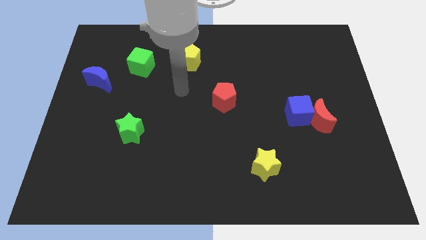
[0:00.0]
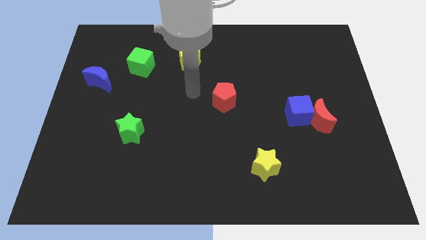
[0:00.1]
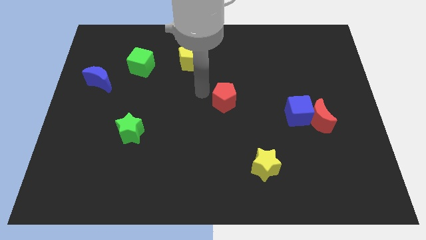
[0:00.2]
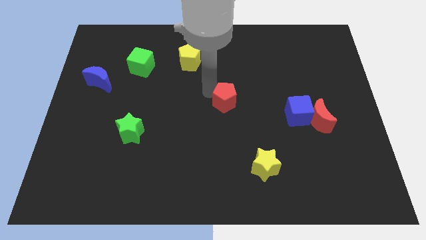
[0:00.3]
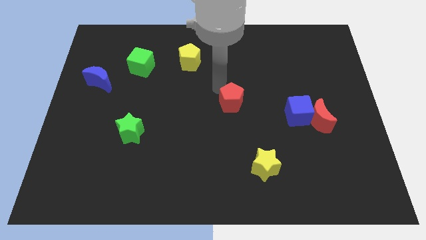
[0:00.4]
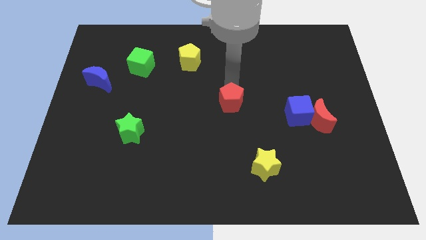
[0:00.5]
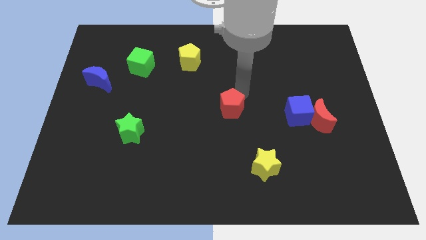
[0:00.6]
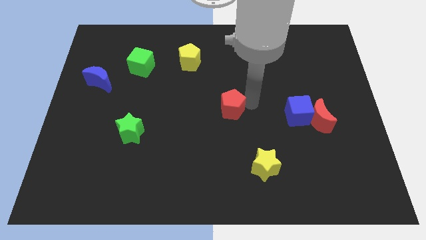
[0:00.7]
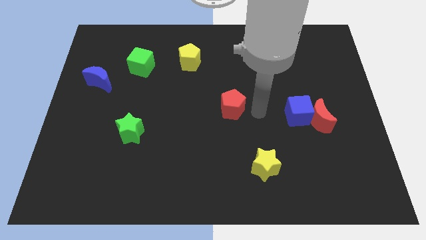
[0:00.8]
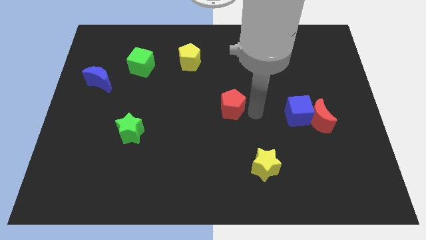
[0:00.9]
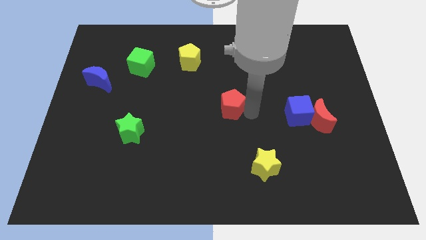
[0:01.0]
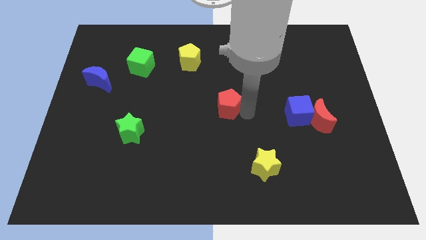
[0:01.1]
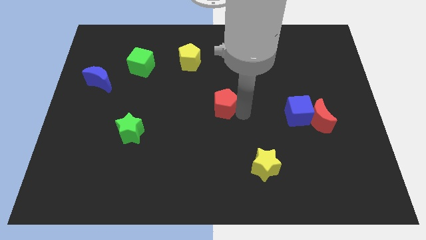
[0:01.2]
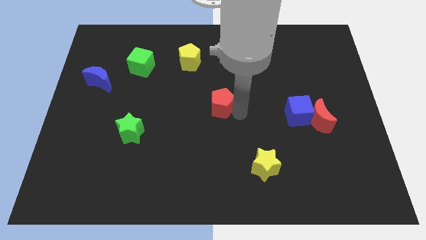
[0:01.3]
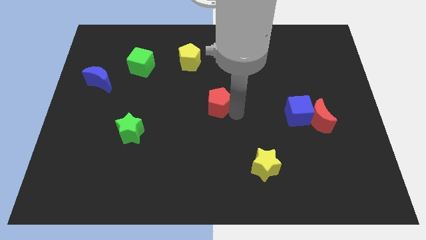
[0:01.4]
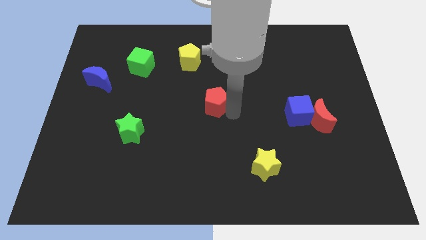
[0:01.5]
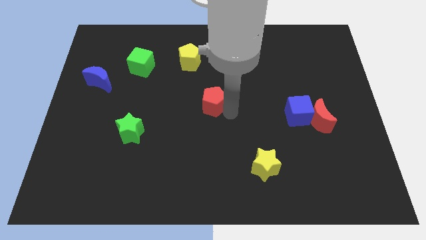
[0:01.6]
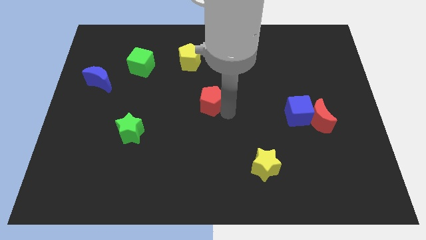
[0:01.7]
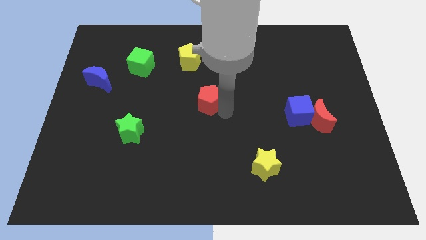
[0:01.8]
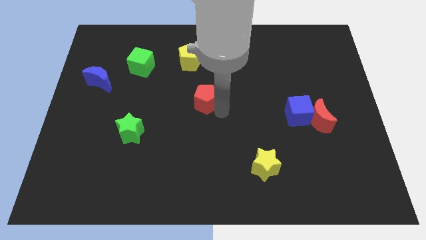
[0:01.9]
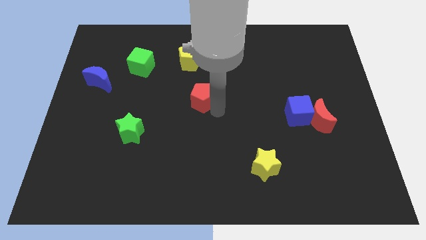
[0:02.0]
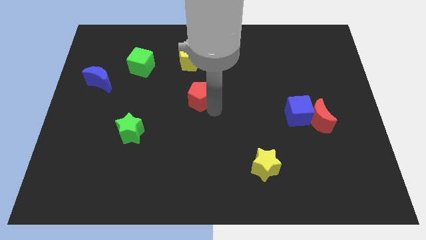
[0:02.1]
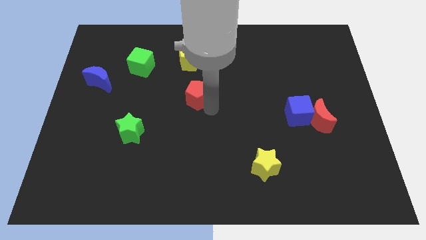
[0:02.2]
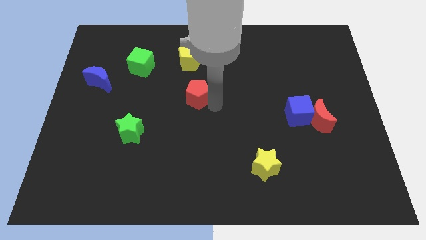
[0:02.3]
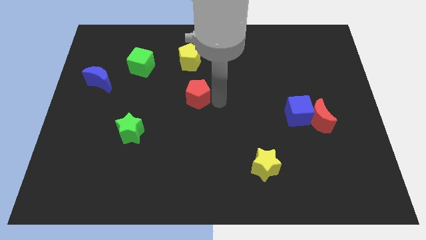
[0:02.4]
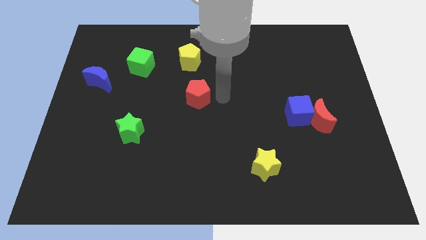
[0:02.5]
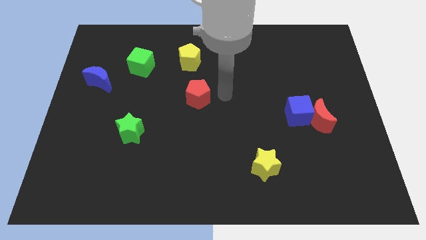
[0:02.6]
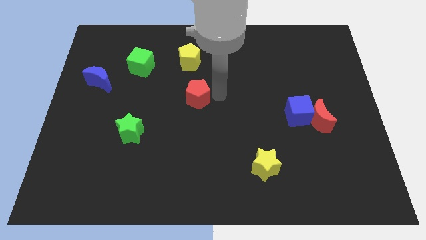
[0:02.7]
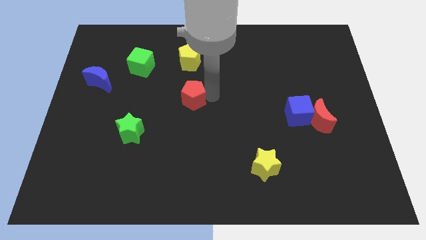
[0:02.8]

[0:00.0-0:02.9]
push the red pentagon a bit to the left

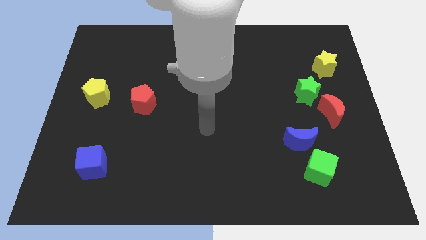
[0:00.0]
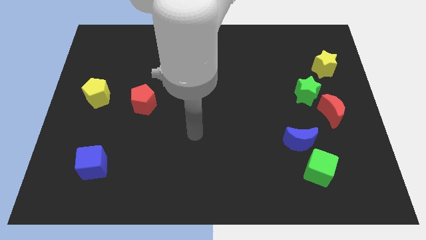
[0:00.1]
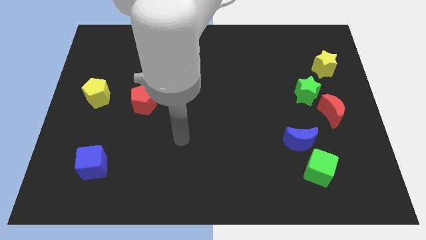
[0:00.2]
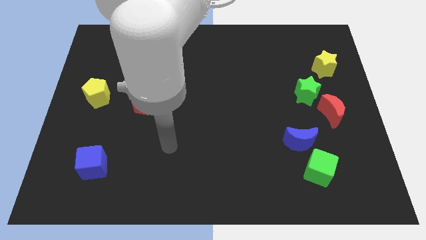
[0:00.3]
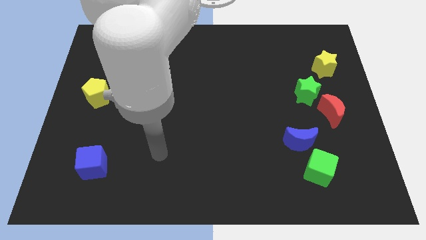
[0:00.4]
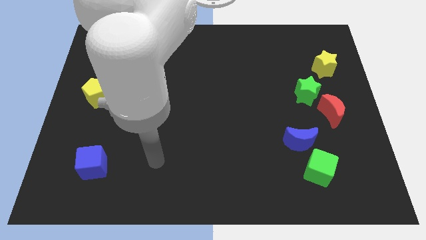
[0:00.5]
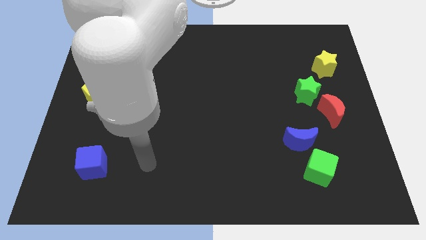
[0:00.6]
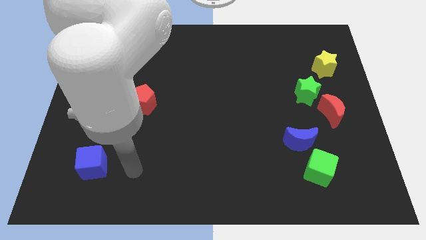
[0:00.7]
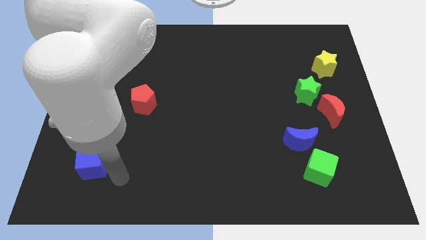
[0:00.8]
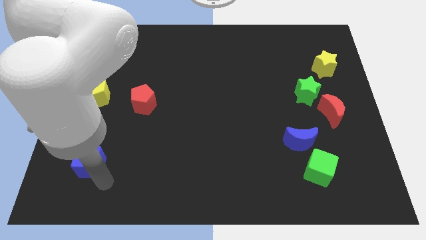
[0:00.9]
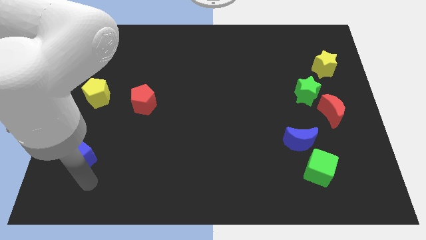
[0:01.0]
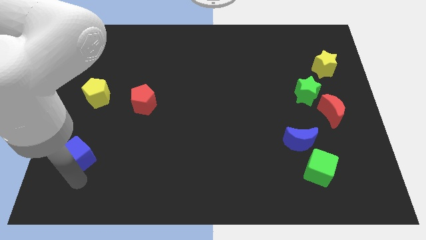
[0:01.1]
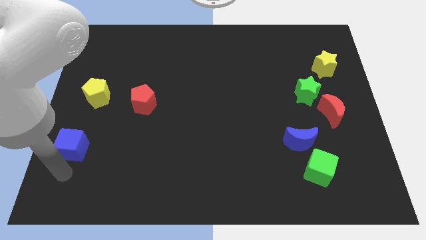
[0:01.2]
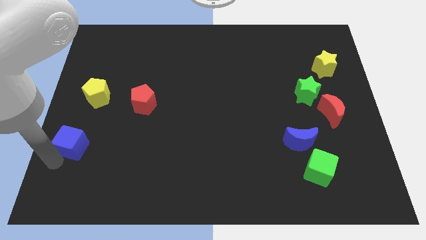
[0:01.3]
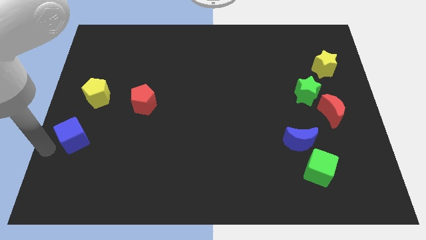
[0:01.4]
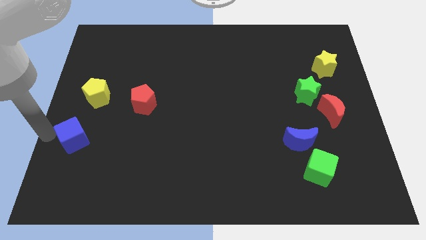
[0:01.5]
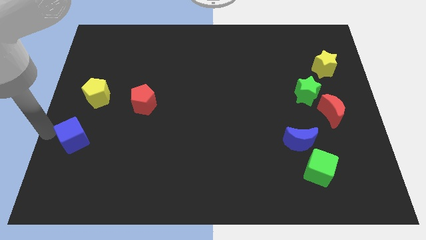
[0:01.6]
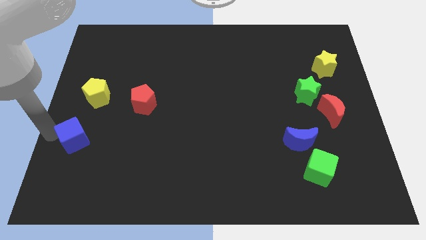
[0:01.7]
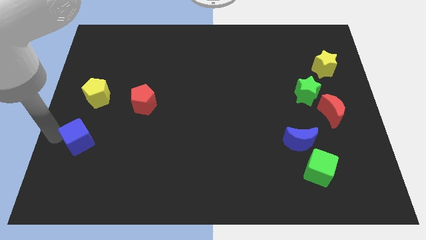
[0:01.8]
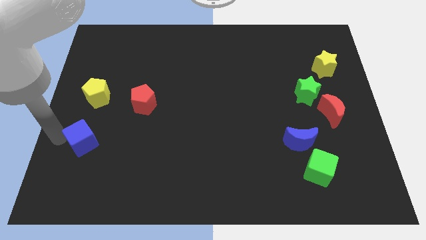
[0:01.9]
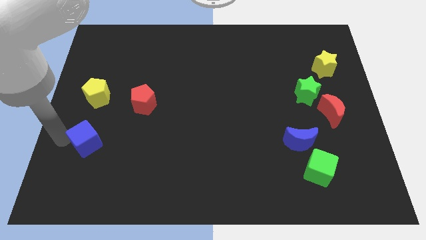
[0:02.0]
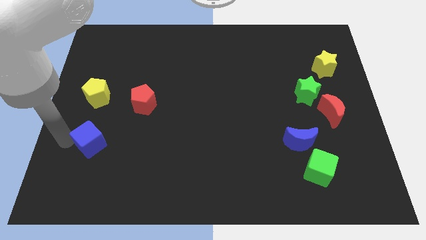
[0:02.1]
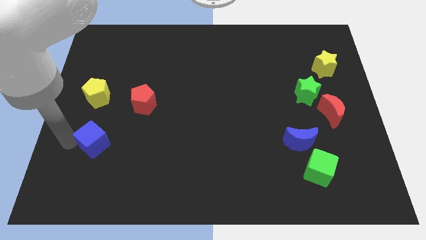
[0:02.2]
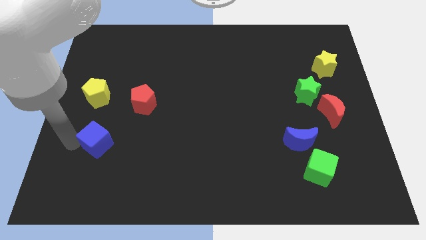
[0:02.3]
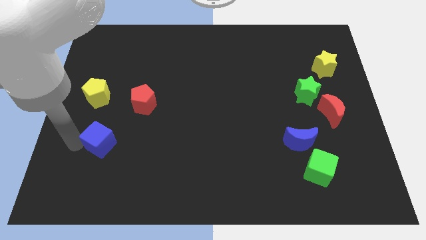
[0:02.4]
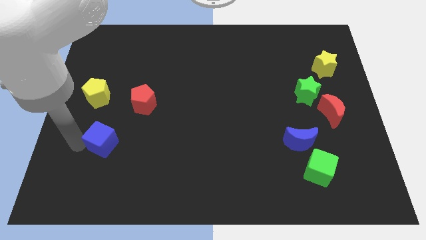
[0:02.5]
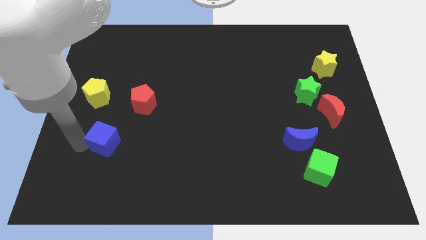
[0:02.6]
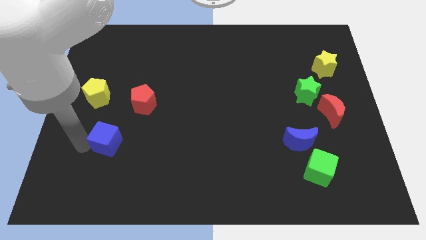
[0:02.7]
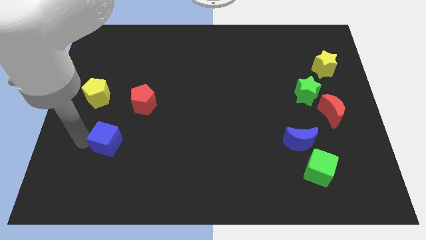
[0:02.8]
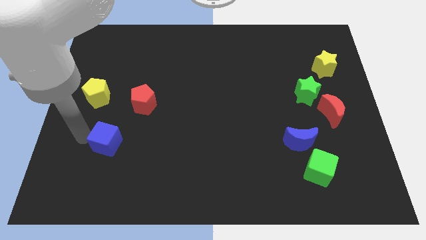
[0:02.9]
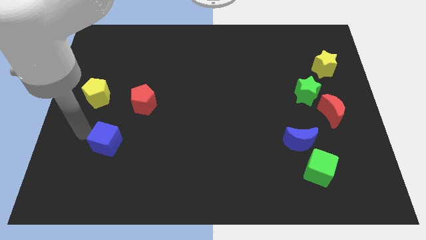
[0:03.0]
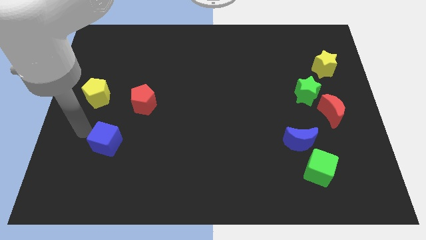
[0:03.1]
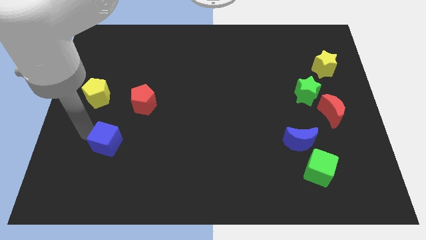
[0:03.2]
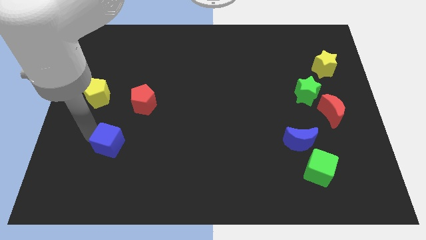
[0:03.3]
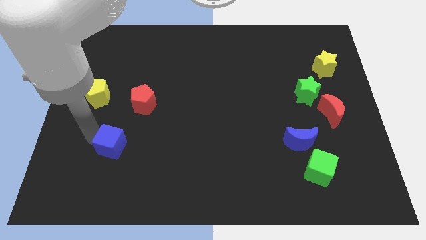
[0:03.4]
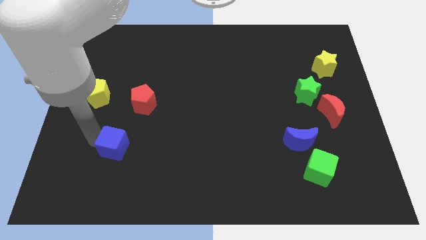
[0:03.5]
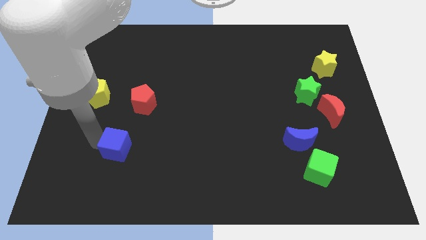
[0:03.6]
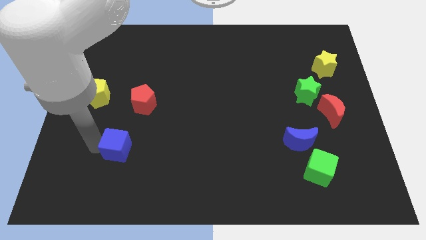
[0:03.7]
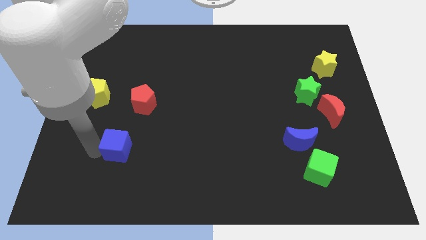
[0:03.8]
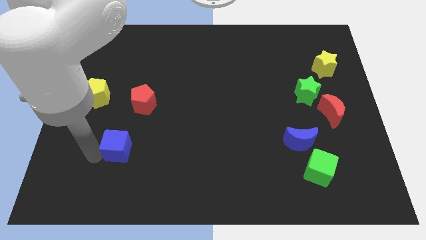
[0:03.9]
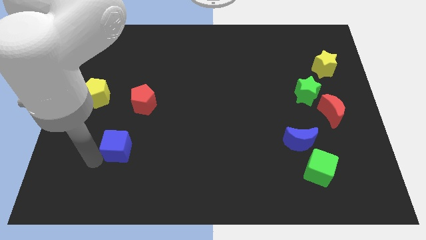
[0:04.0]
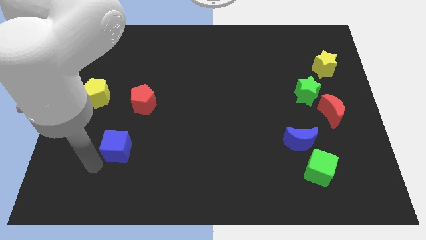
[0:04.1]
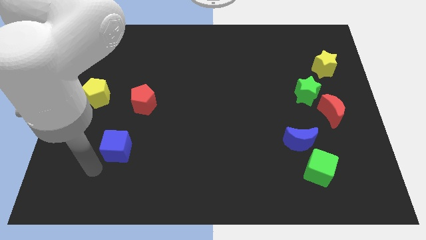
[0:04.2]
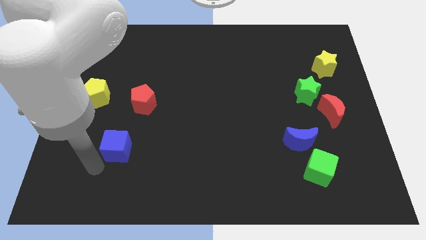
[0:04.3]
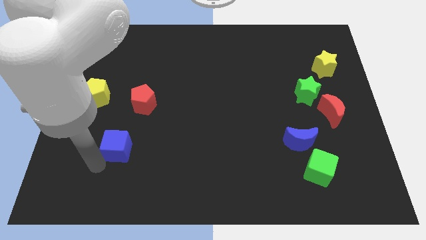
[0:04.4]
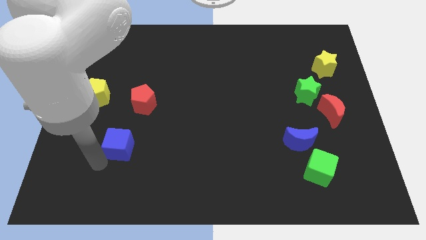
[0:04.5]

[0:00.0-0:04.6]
slightly move the blue cube up and right diagonally

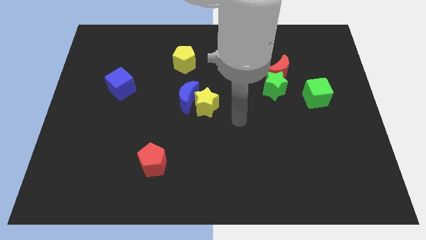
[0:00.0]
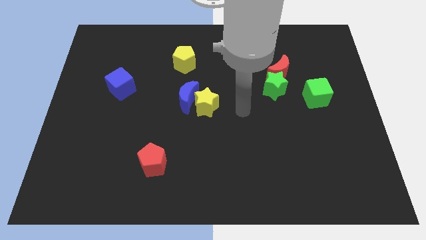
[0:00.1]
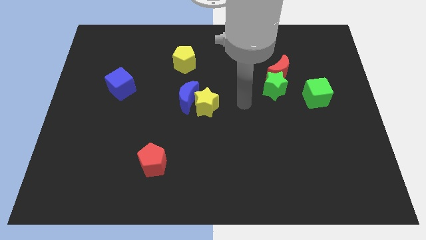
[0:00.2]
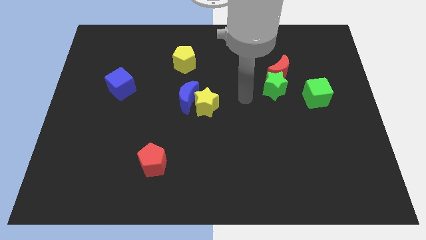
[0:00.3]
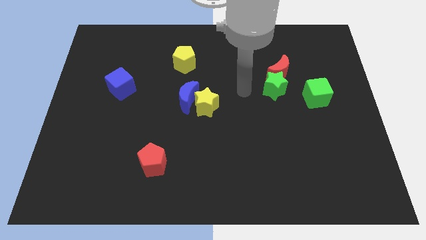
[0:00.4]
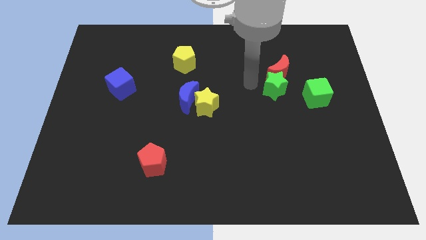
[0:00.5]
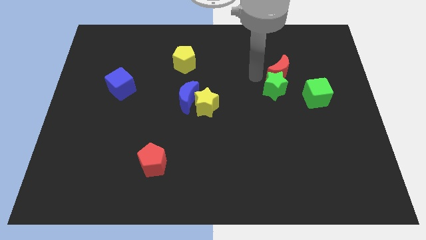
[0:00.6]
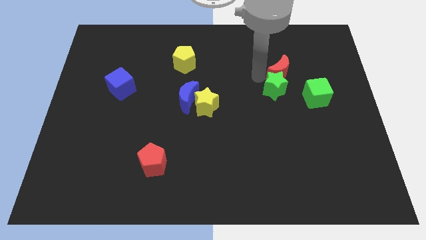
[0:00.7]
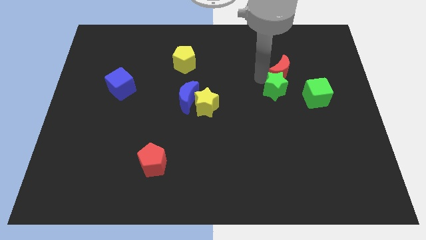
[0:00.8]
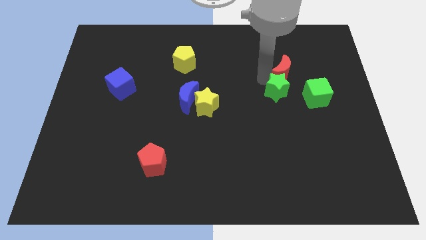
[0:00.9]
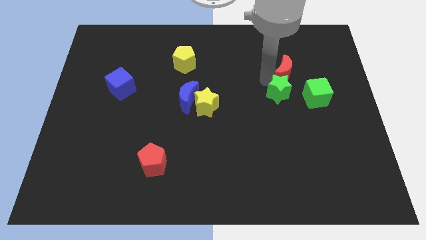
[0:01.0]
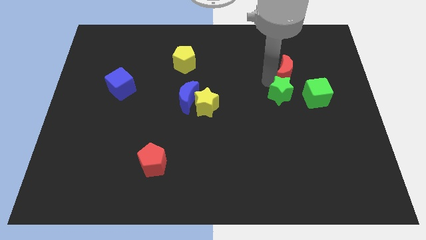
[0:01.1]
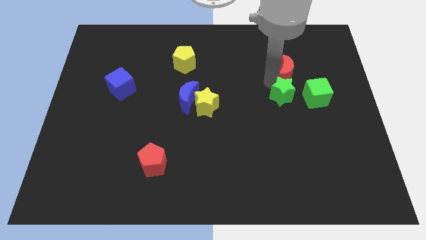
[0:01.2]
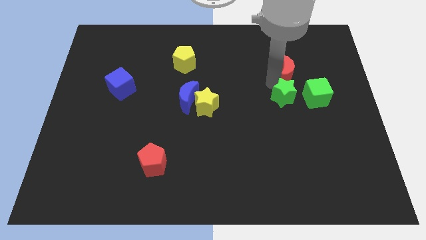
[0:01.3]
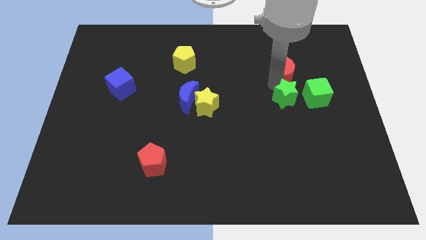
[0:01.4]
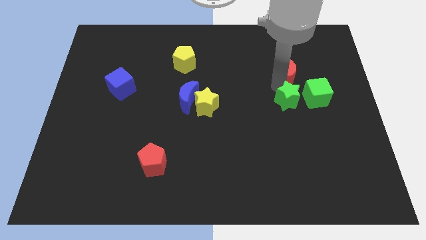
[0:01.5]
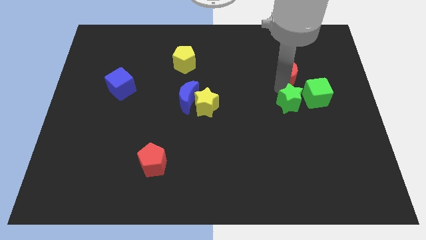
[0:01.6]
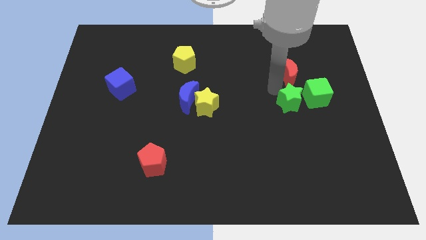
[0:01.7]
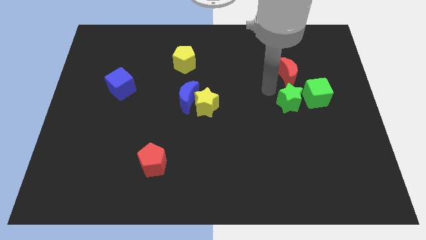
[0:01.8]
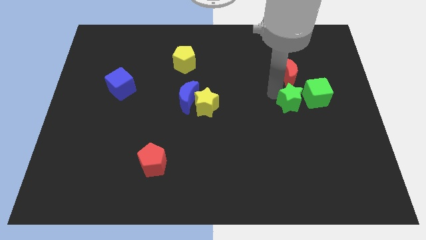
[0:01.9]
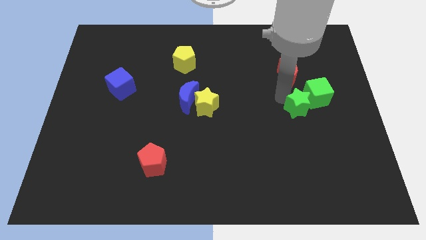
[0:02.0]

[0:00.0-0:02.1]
slide the green star down and right a little bit
